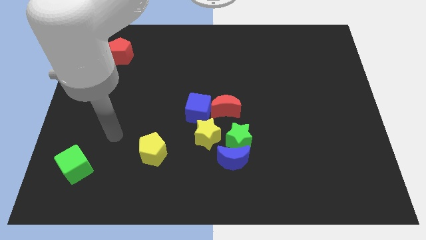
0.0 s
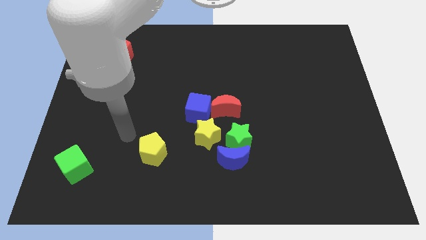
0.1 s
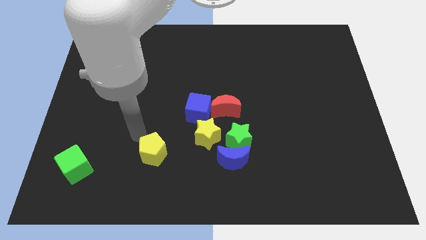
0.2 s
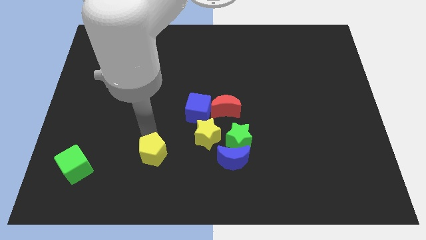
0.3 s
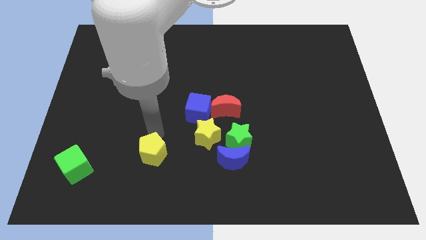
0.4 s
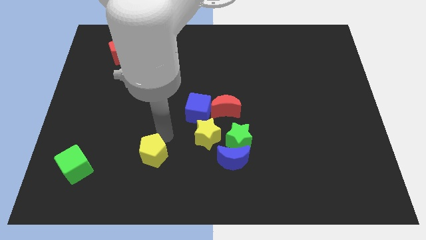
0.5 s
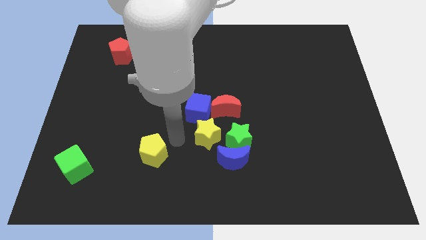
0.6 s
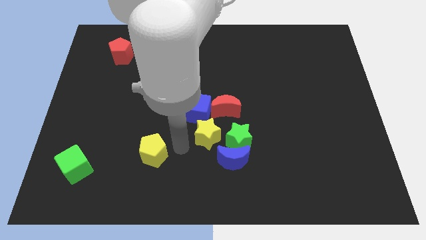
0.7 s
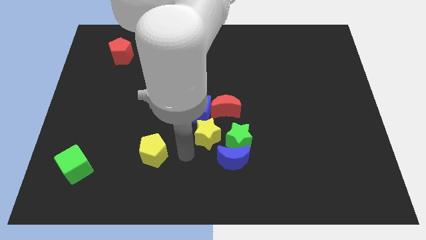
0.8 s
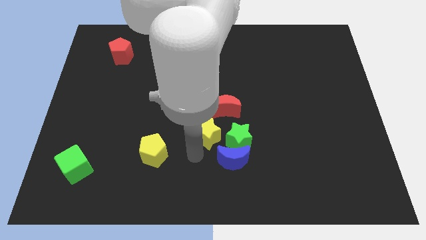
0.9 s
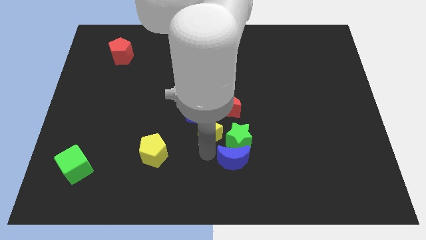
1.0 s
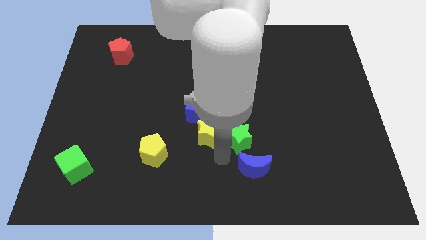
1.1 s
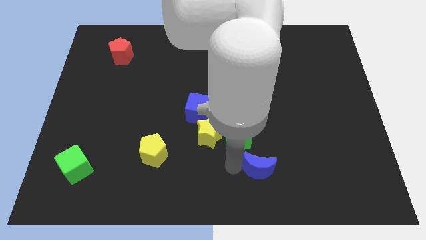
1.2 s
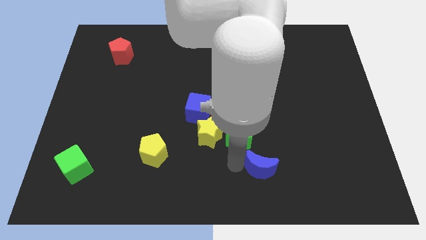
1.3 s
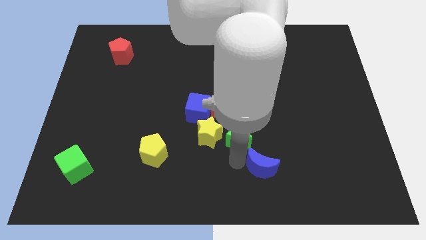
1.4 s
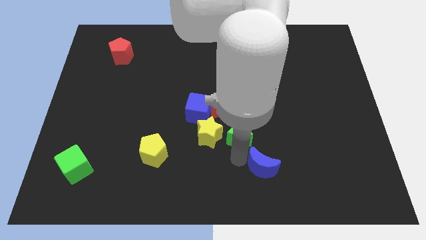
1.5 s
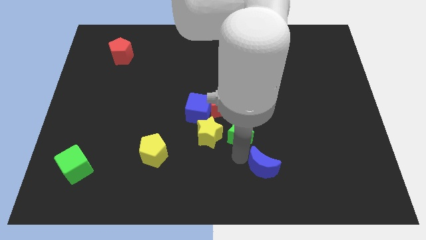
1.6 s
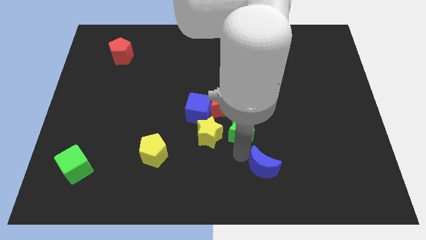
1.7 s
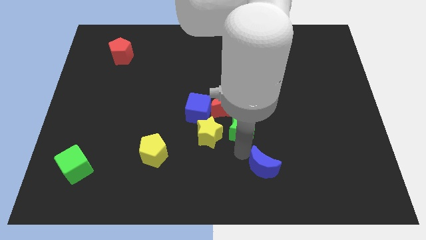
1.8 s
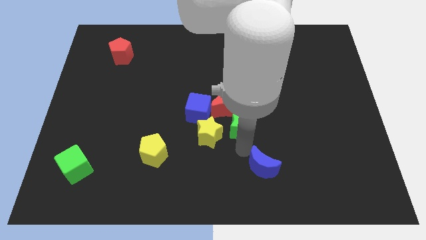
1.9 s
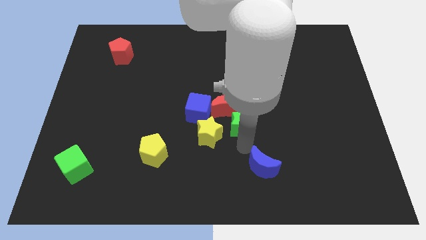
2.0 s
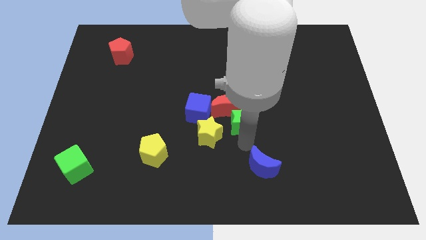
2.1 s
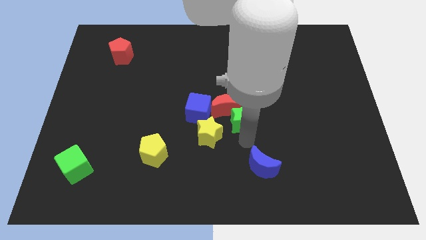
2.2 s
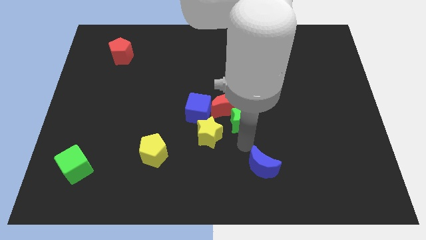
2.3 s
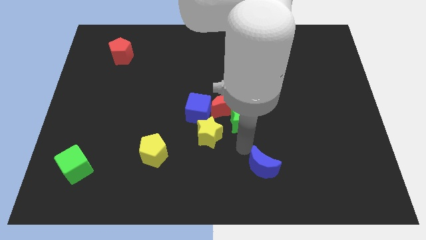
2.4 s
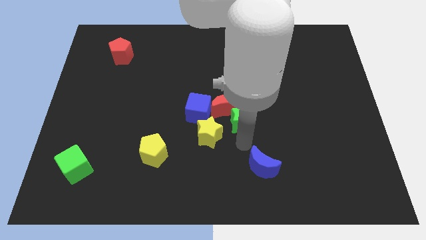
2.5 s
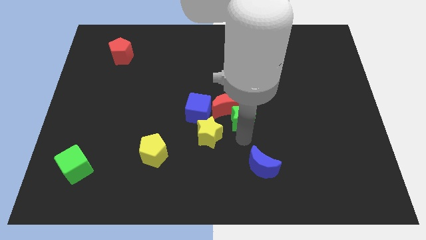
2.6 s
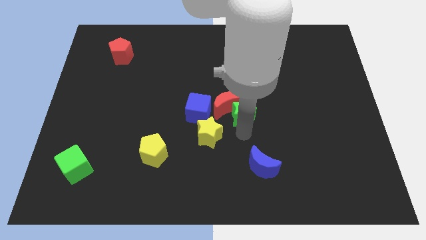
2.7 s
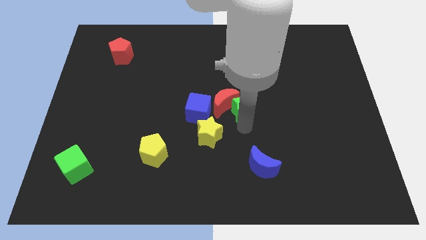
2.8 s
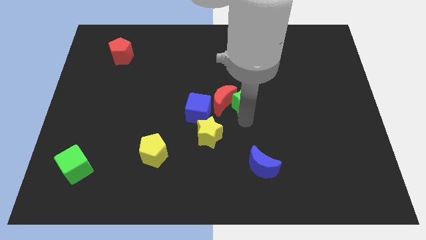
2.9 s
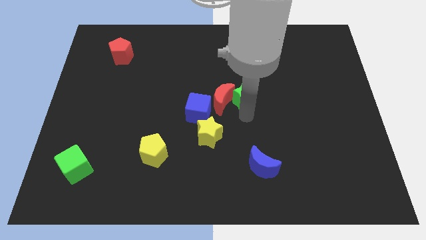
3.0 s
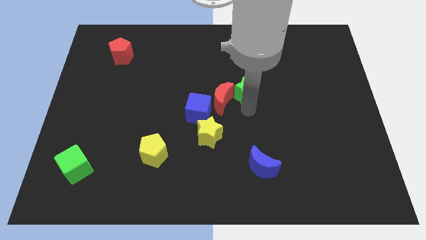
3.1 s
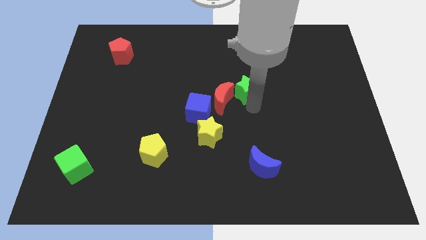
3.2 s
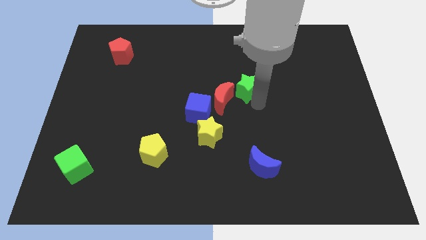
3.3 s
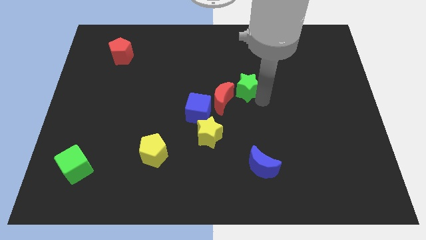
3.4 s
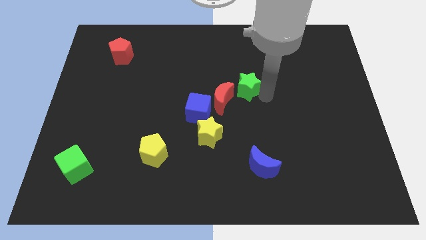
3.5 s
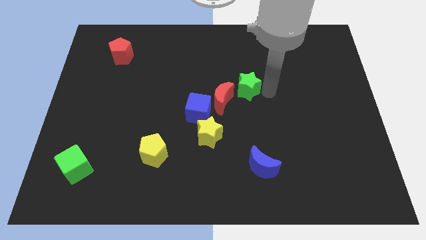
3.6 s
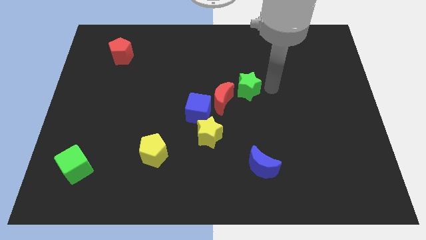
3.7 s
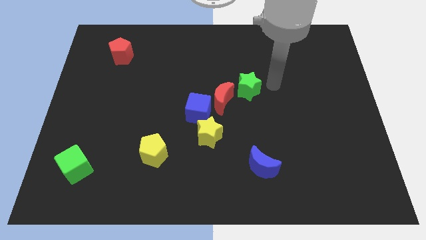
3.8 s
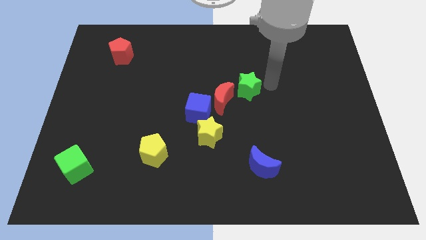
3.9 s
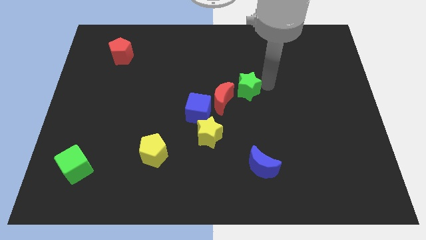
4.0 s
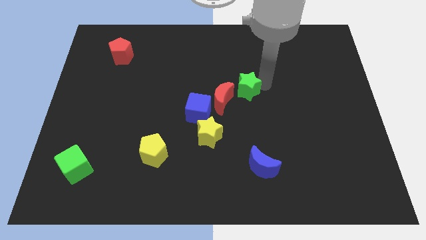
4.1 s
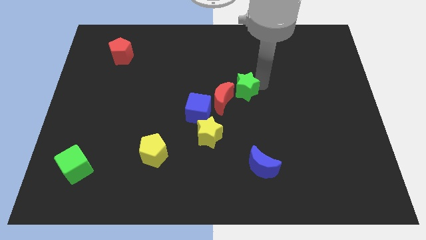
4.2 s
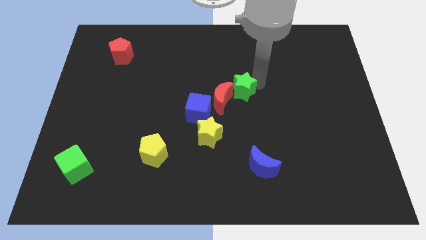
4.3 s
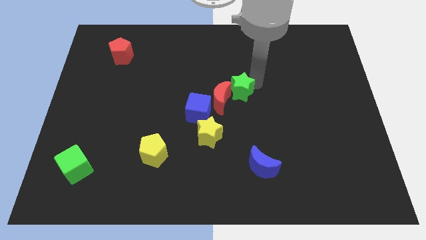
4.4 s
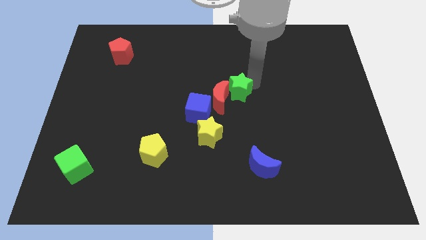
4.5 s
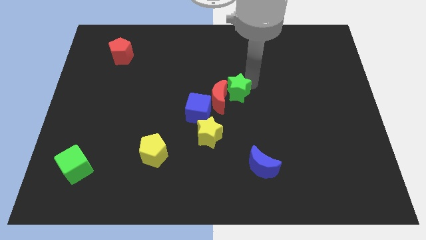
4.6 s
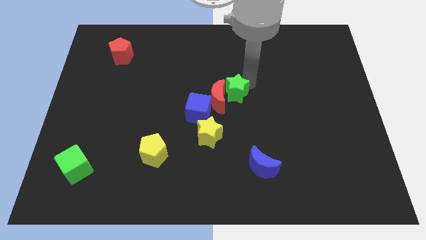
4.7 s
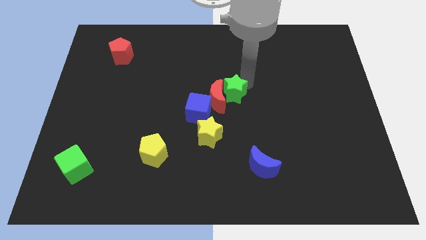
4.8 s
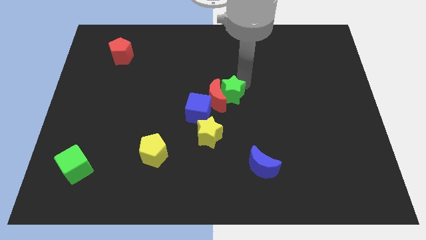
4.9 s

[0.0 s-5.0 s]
move the green star a bit up and then to the left

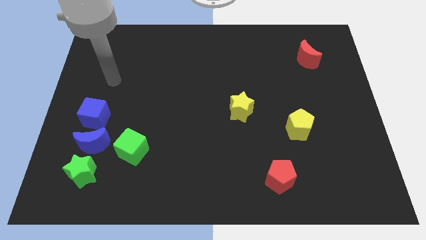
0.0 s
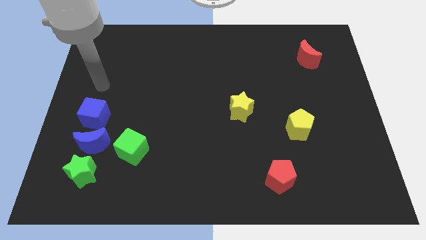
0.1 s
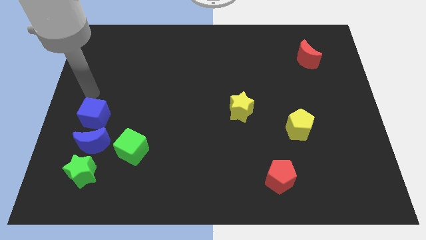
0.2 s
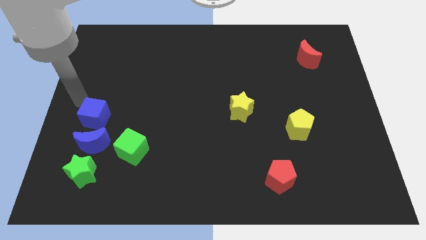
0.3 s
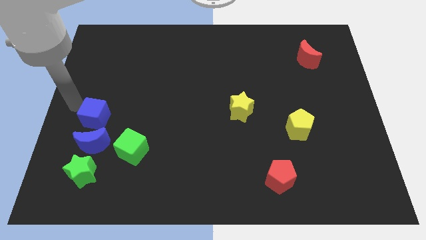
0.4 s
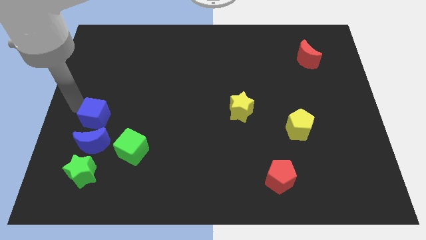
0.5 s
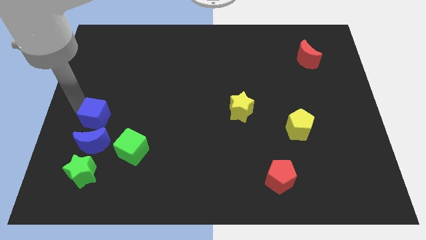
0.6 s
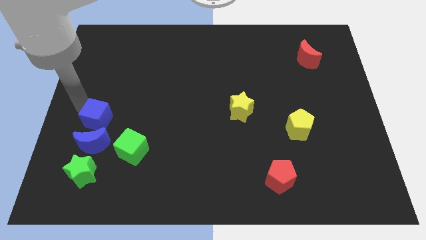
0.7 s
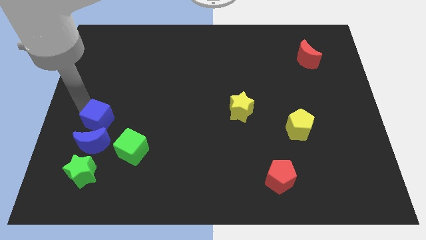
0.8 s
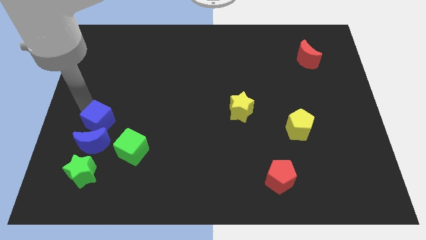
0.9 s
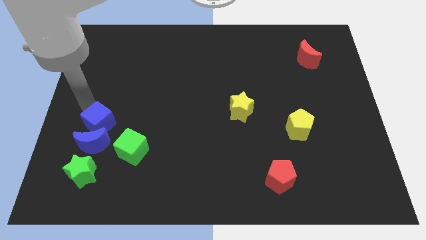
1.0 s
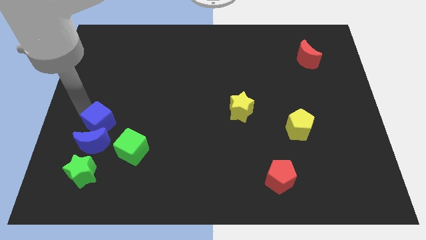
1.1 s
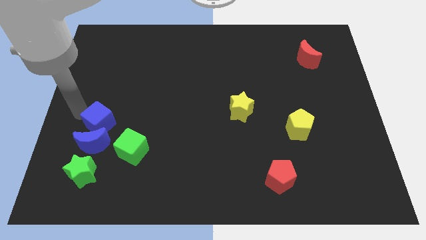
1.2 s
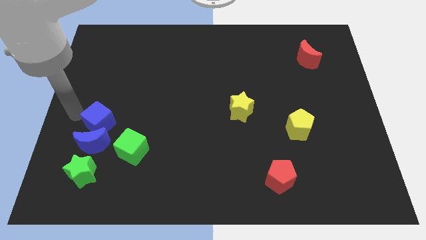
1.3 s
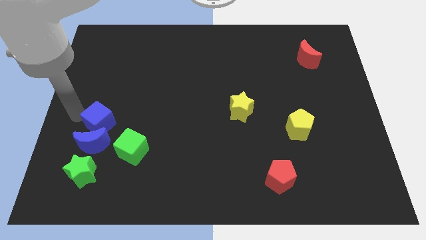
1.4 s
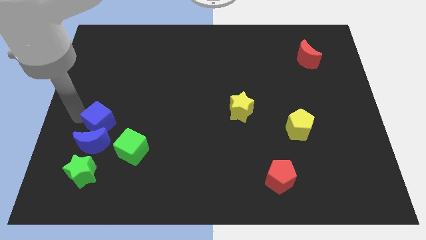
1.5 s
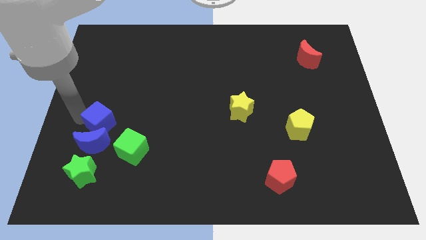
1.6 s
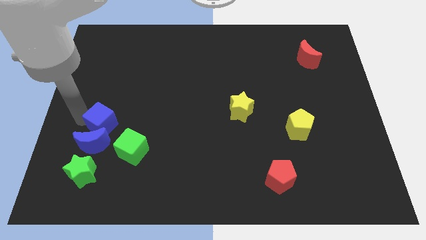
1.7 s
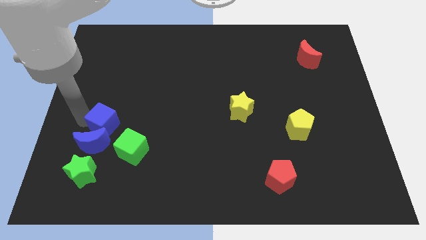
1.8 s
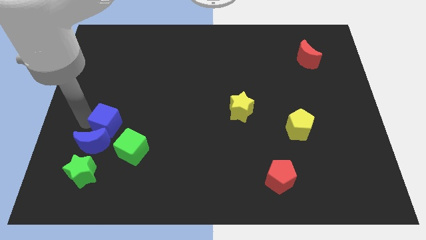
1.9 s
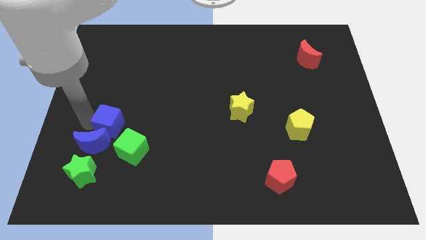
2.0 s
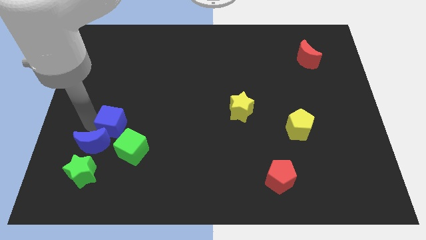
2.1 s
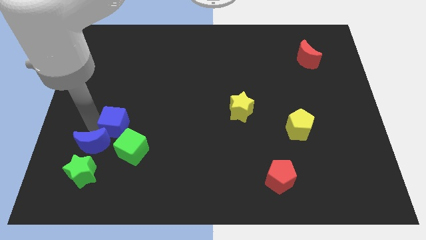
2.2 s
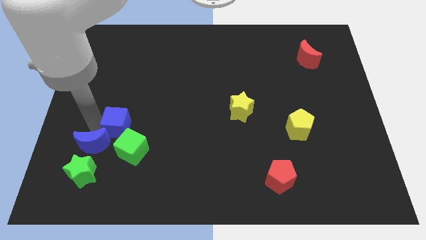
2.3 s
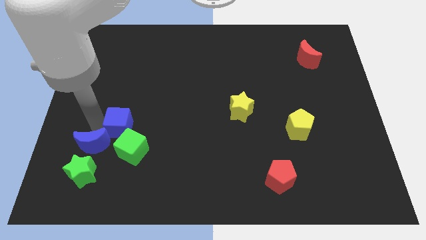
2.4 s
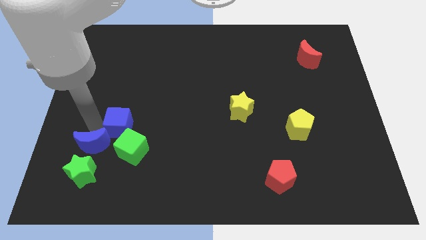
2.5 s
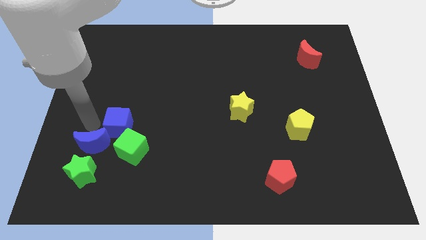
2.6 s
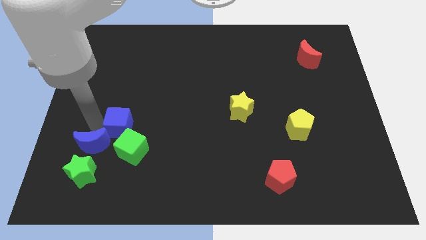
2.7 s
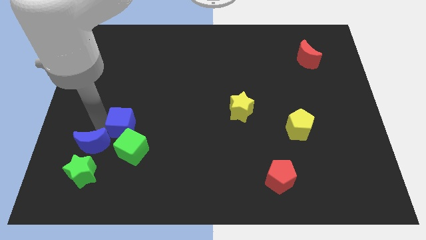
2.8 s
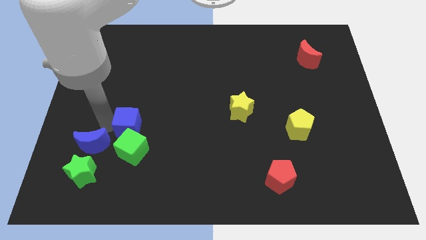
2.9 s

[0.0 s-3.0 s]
slightly push the blue cube downwards and right diagonally

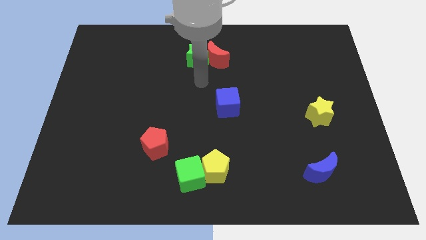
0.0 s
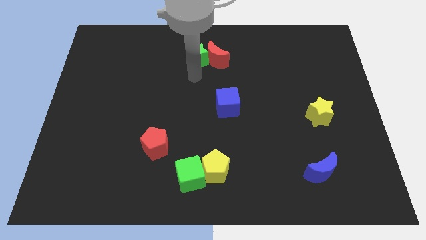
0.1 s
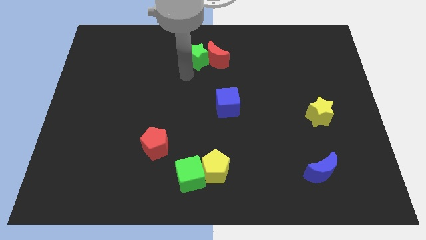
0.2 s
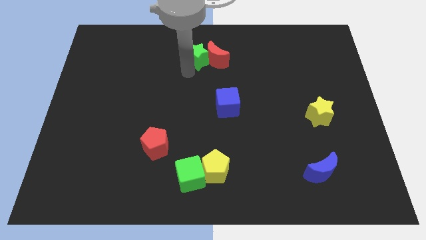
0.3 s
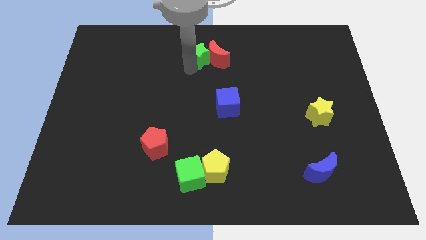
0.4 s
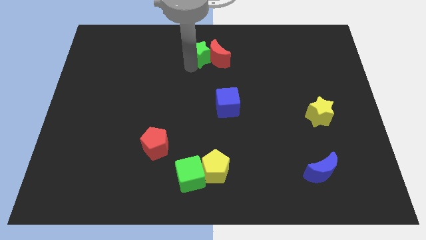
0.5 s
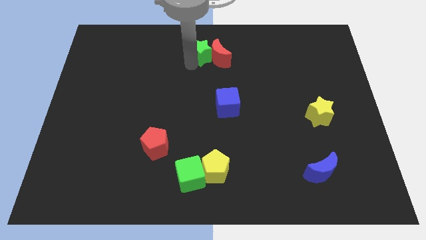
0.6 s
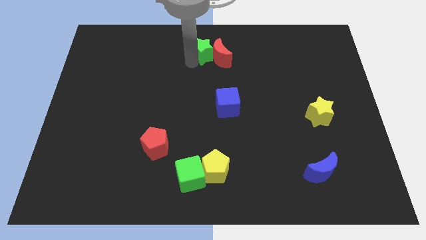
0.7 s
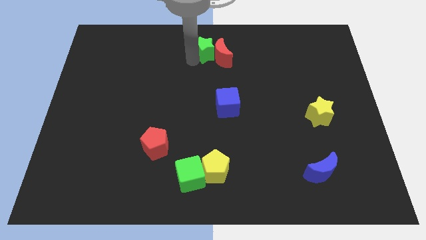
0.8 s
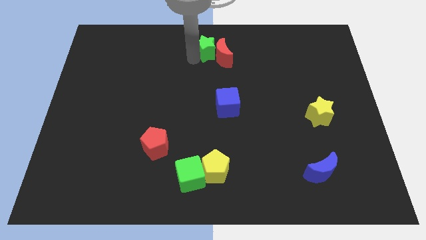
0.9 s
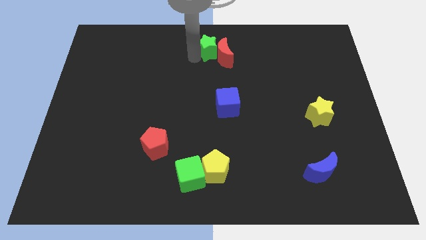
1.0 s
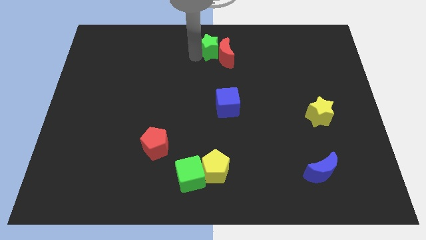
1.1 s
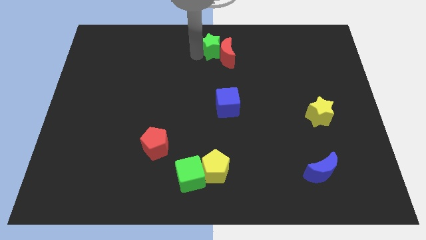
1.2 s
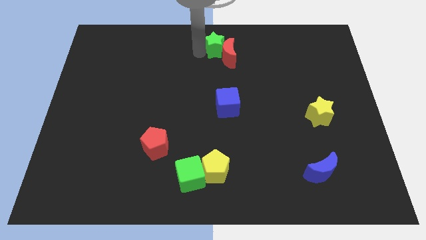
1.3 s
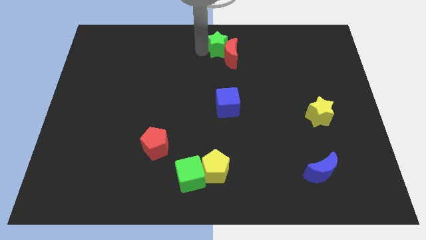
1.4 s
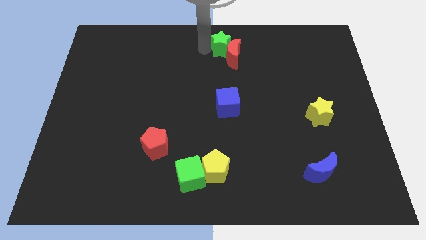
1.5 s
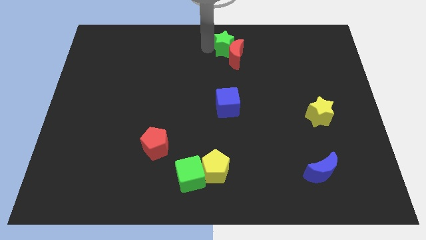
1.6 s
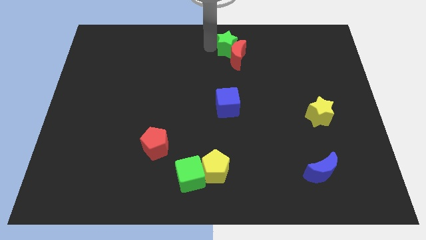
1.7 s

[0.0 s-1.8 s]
move the green star a little to the right
